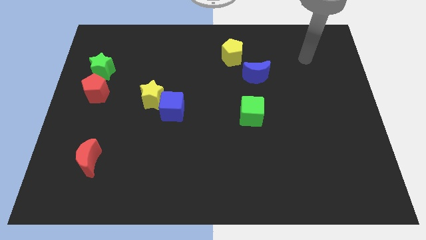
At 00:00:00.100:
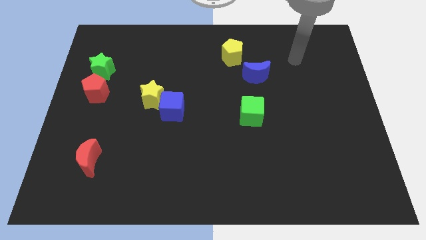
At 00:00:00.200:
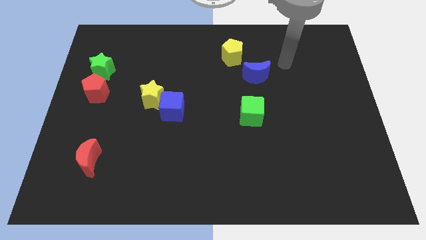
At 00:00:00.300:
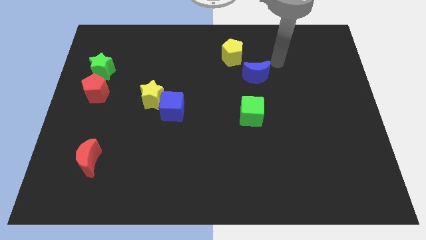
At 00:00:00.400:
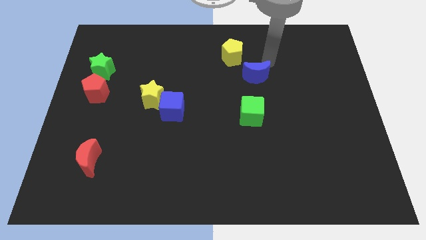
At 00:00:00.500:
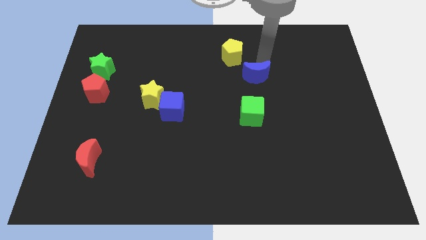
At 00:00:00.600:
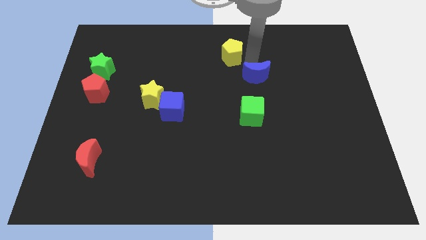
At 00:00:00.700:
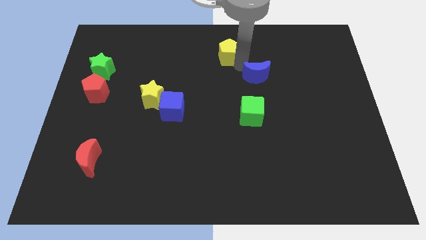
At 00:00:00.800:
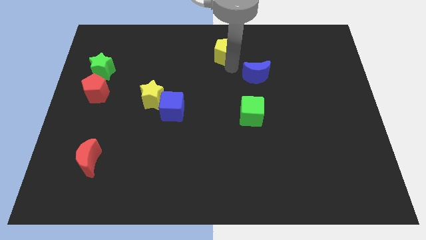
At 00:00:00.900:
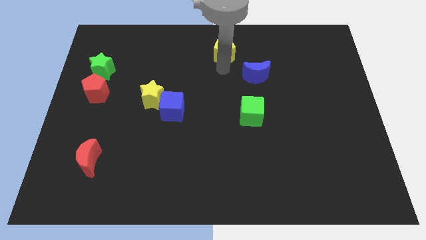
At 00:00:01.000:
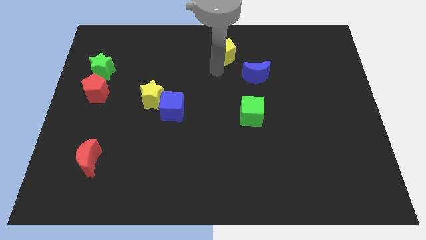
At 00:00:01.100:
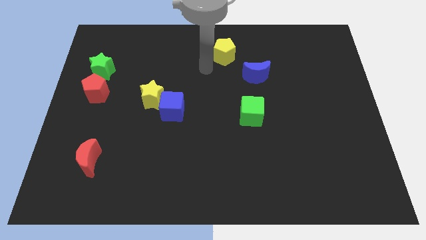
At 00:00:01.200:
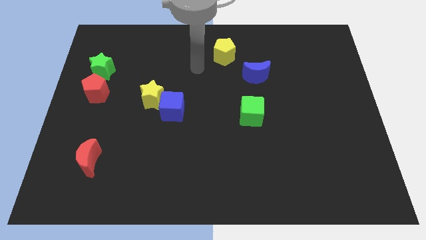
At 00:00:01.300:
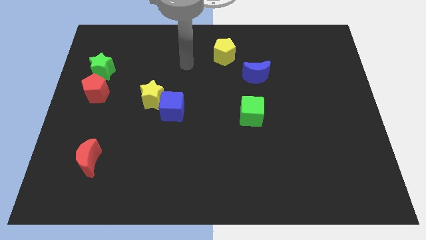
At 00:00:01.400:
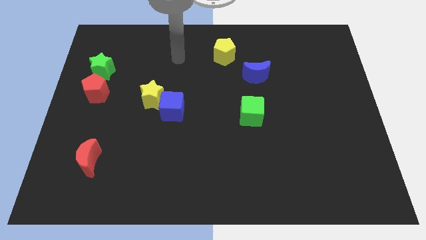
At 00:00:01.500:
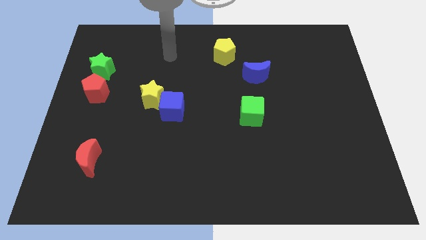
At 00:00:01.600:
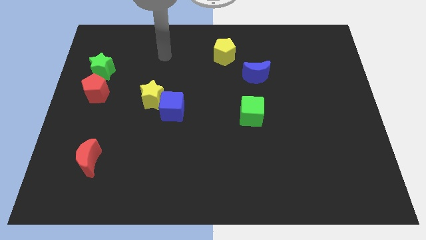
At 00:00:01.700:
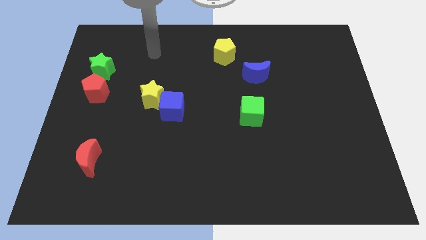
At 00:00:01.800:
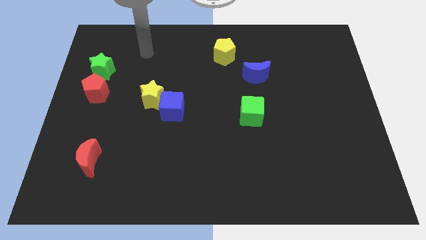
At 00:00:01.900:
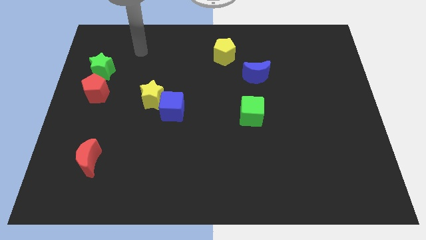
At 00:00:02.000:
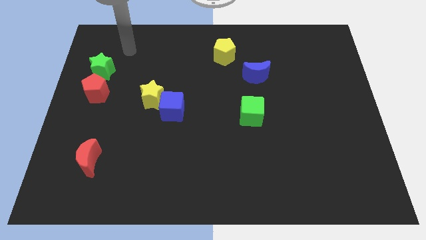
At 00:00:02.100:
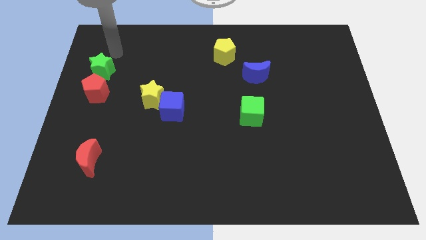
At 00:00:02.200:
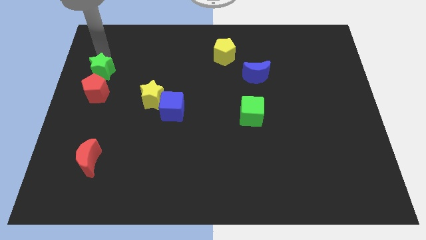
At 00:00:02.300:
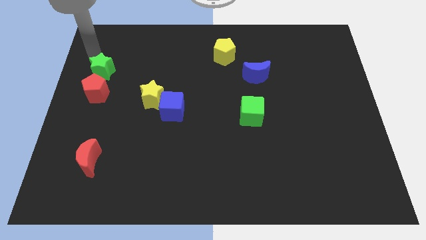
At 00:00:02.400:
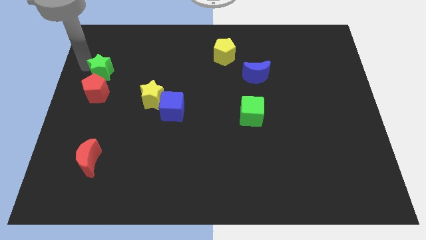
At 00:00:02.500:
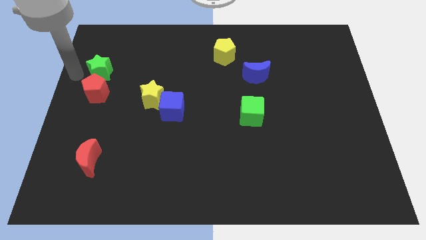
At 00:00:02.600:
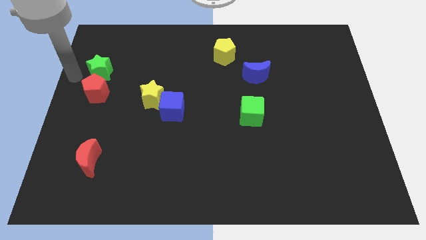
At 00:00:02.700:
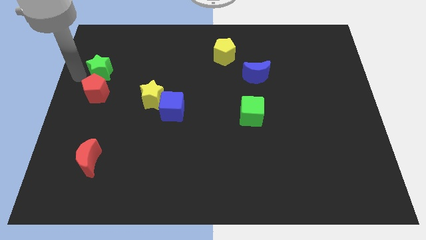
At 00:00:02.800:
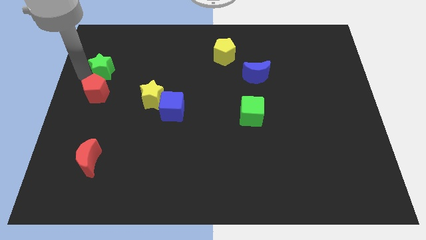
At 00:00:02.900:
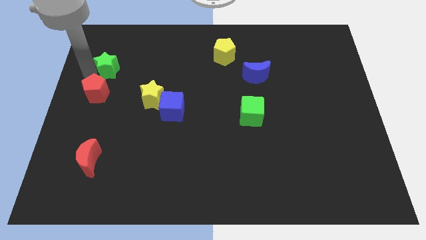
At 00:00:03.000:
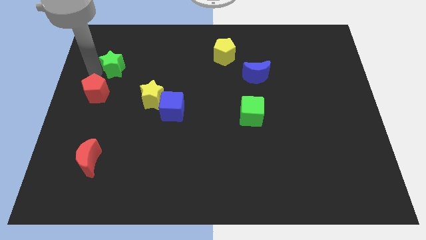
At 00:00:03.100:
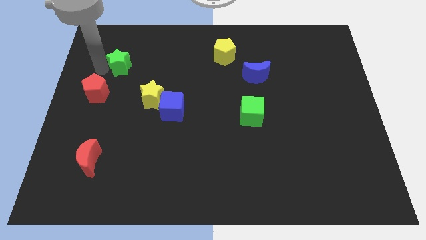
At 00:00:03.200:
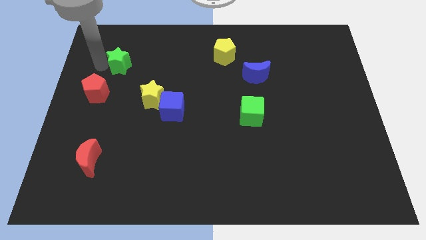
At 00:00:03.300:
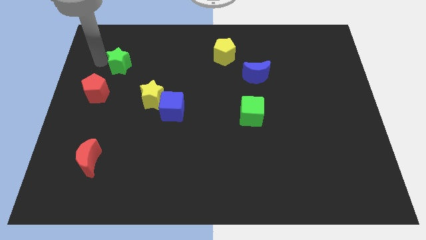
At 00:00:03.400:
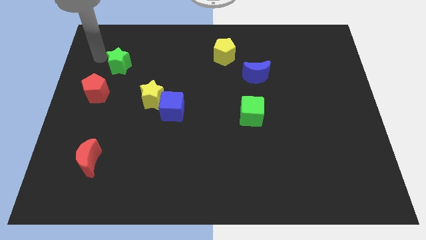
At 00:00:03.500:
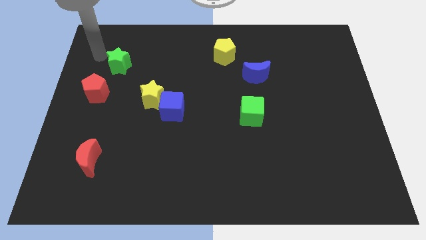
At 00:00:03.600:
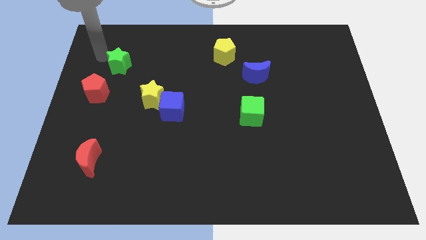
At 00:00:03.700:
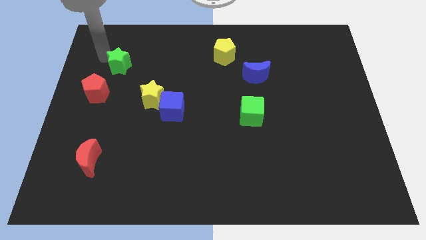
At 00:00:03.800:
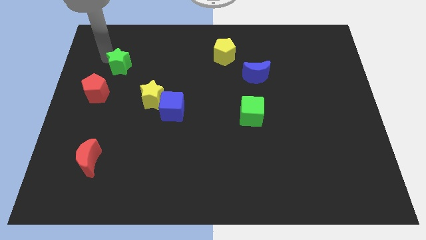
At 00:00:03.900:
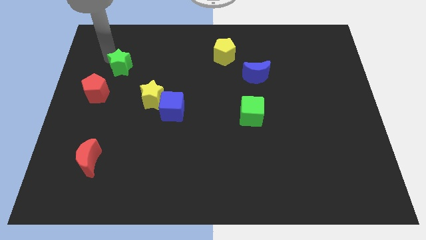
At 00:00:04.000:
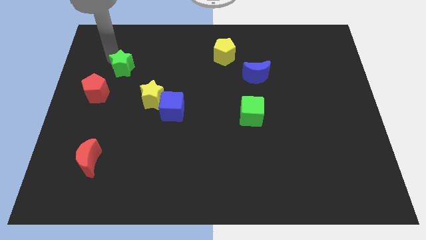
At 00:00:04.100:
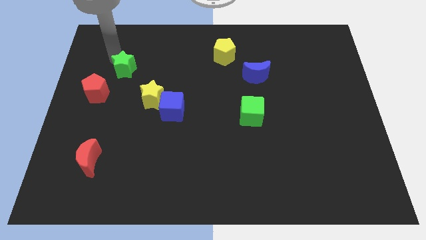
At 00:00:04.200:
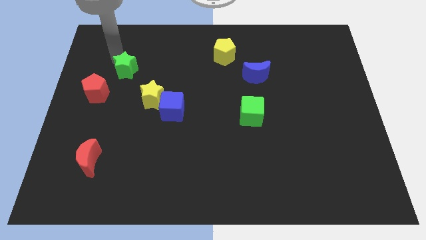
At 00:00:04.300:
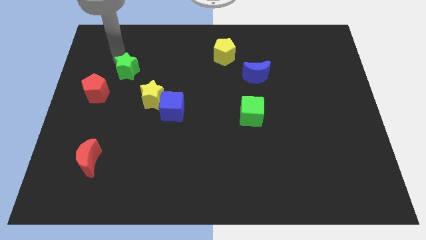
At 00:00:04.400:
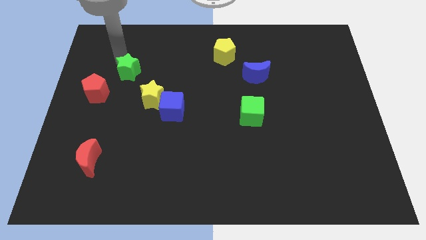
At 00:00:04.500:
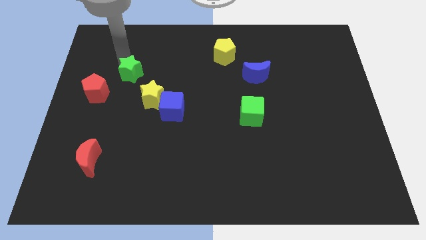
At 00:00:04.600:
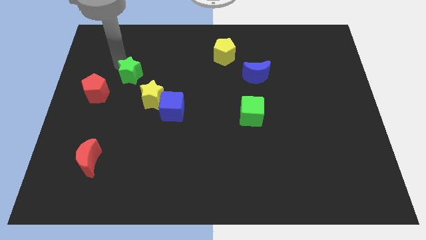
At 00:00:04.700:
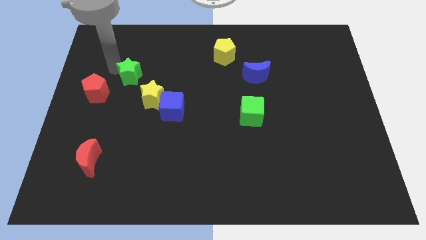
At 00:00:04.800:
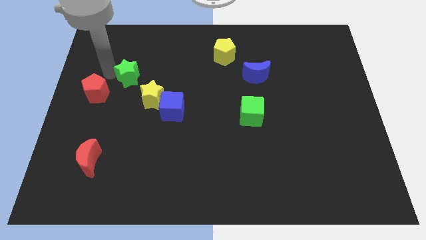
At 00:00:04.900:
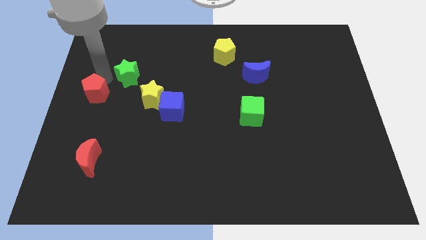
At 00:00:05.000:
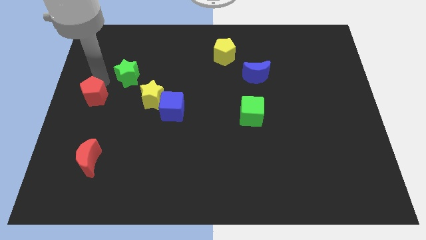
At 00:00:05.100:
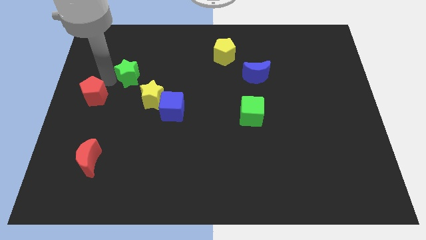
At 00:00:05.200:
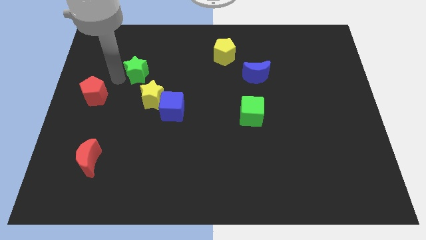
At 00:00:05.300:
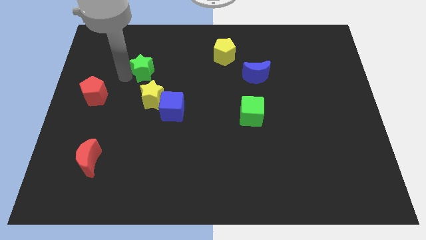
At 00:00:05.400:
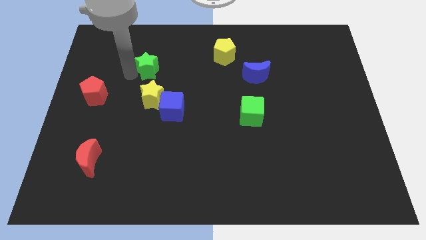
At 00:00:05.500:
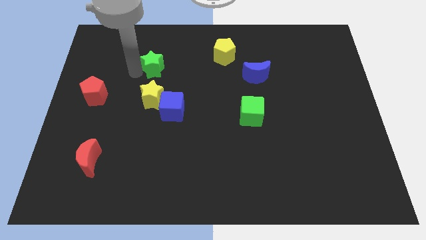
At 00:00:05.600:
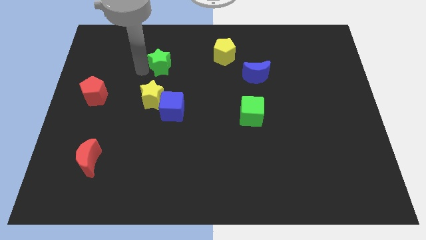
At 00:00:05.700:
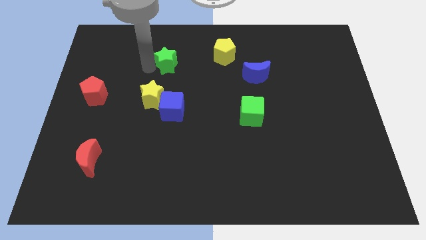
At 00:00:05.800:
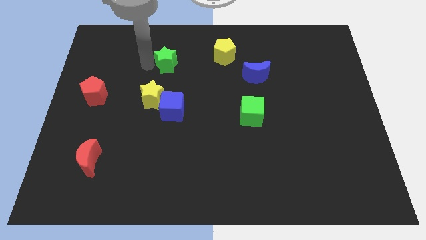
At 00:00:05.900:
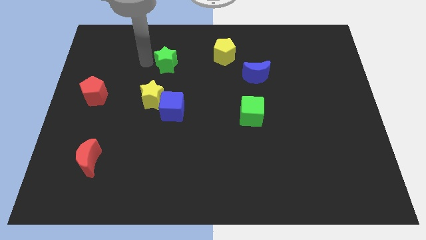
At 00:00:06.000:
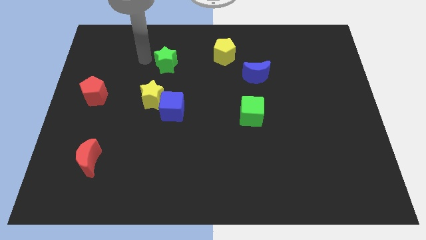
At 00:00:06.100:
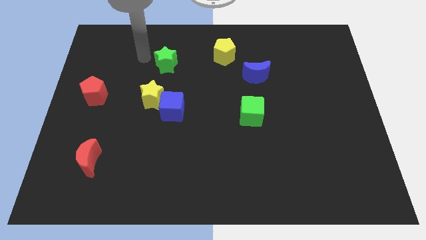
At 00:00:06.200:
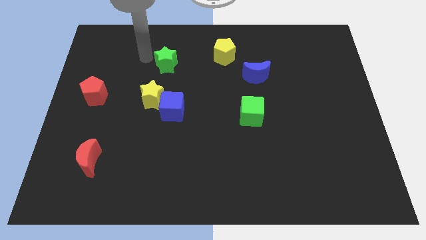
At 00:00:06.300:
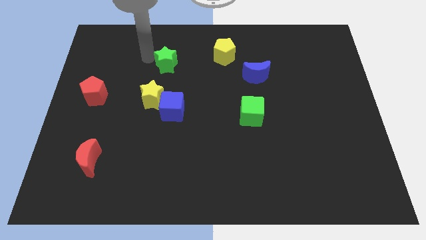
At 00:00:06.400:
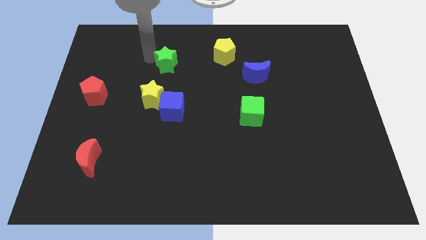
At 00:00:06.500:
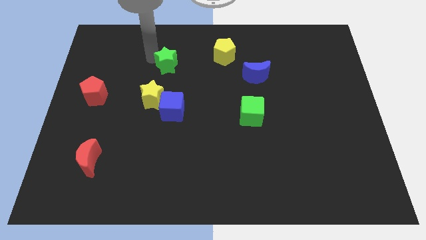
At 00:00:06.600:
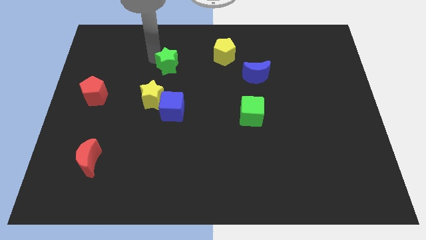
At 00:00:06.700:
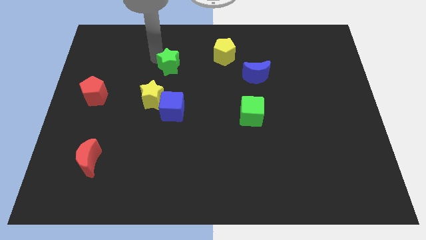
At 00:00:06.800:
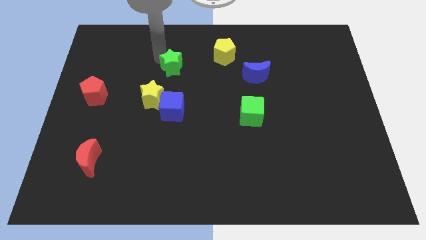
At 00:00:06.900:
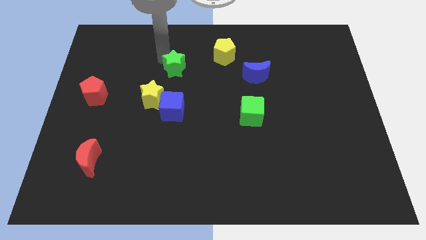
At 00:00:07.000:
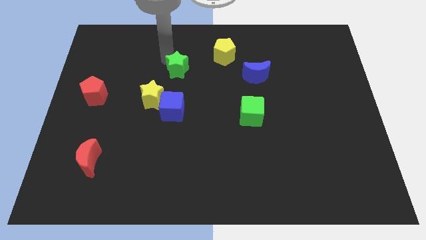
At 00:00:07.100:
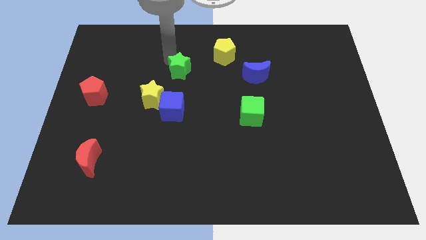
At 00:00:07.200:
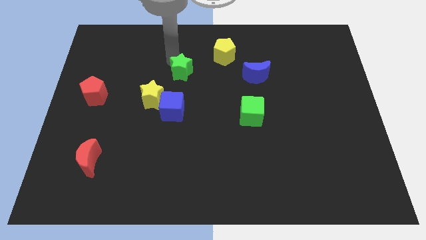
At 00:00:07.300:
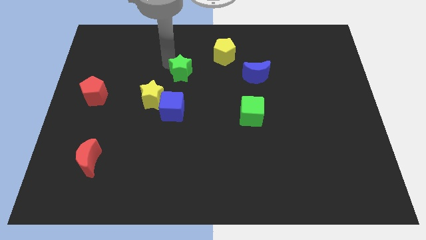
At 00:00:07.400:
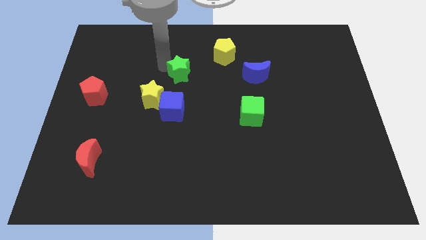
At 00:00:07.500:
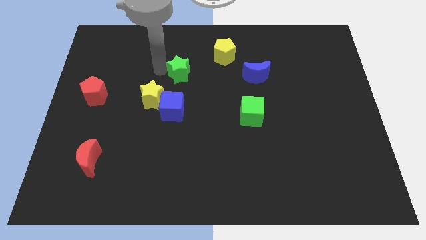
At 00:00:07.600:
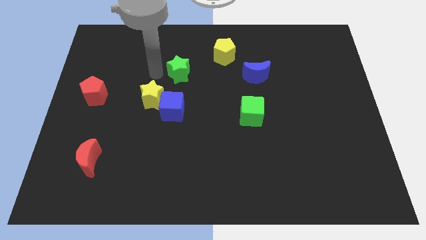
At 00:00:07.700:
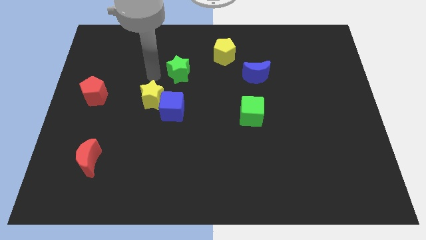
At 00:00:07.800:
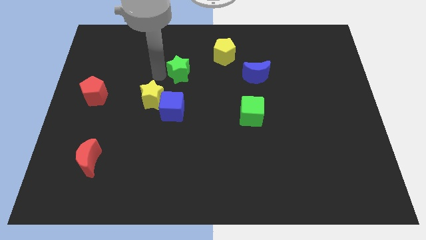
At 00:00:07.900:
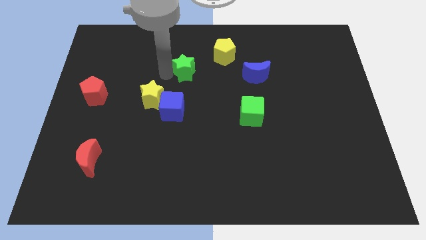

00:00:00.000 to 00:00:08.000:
move the green star to the bottom left side of the yellow pentagon
